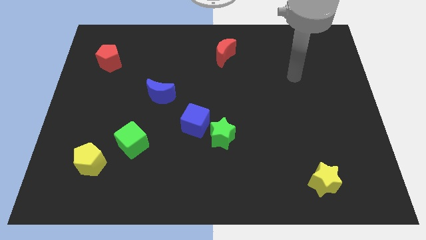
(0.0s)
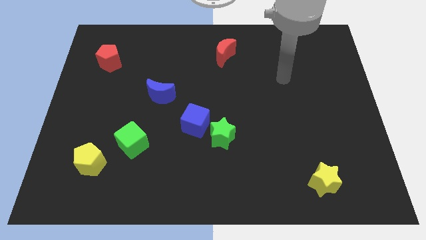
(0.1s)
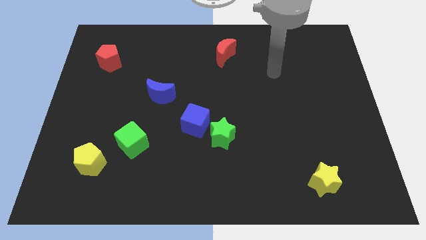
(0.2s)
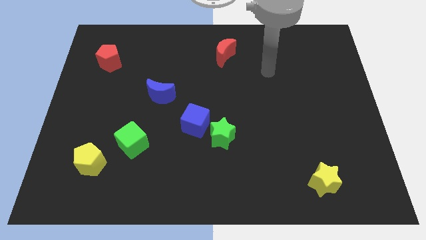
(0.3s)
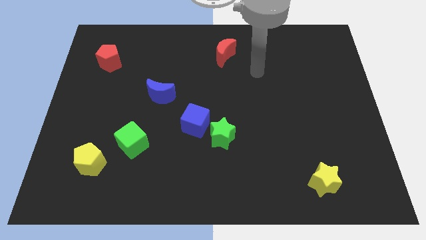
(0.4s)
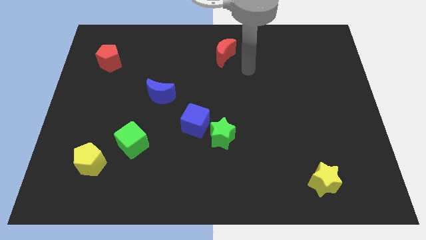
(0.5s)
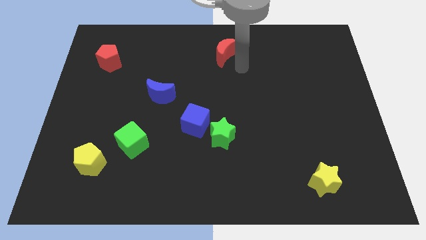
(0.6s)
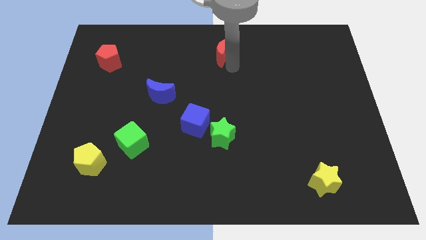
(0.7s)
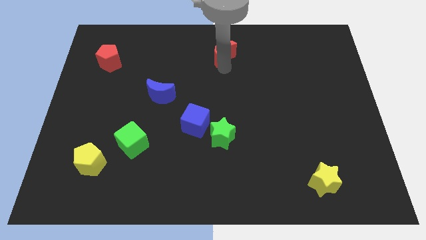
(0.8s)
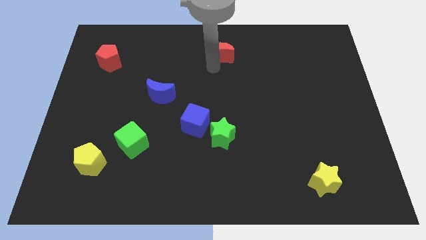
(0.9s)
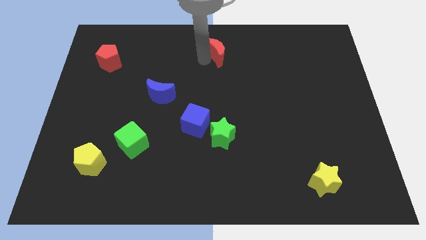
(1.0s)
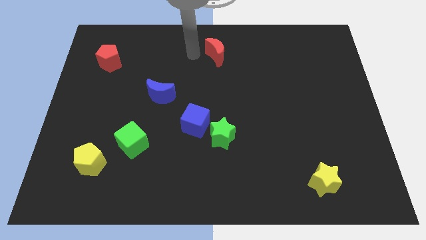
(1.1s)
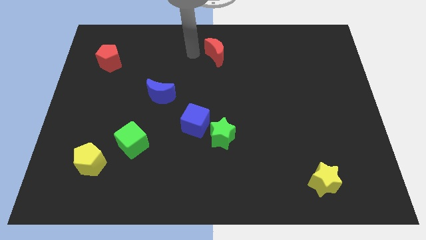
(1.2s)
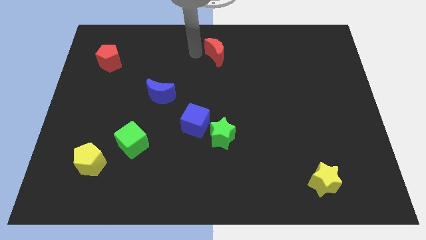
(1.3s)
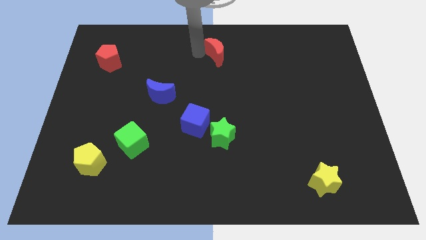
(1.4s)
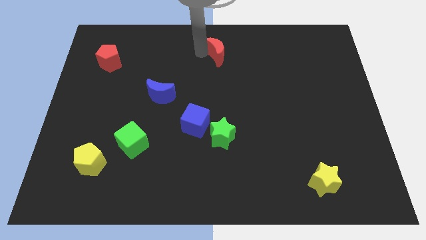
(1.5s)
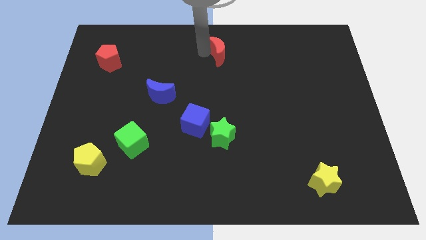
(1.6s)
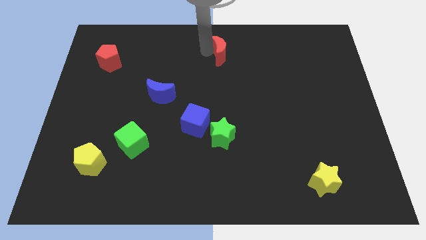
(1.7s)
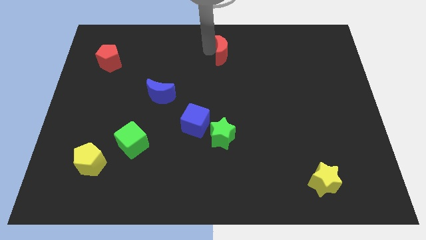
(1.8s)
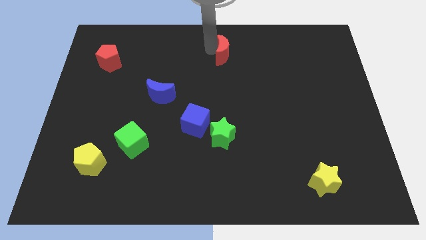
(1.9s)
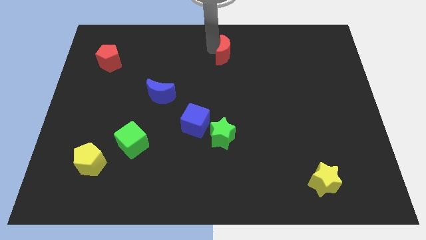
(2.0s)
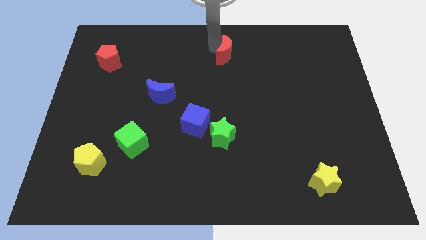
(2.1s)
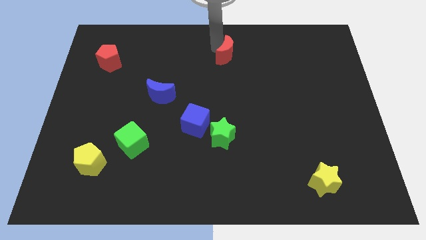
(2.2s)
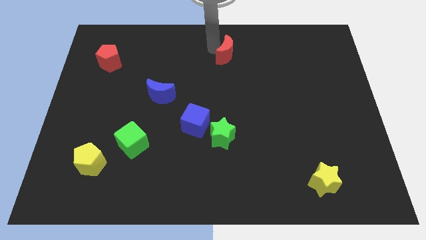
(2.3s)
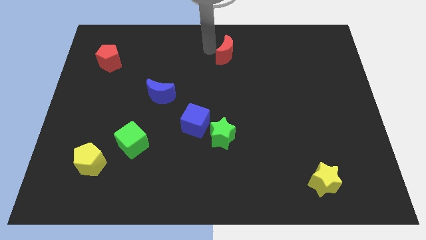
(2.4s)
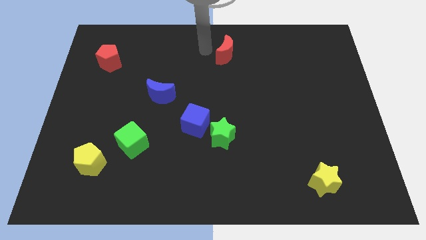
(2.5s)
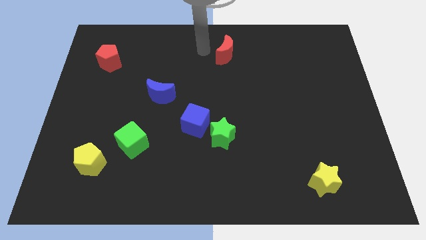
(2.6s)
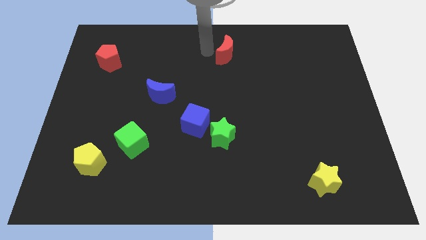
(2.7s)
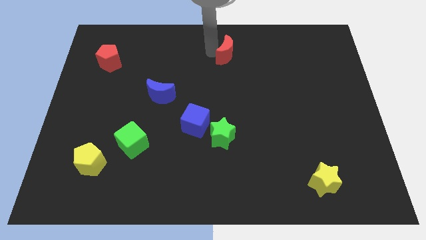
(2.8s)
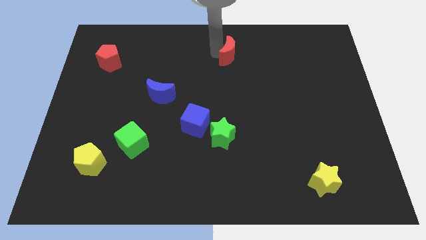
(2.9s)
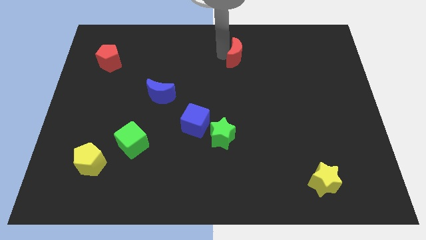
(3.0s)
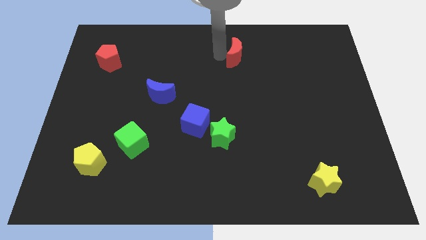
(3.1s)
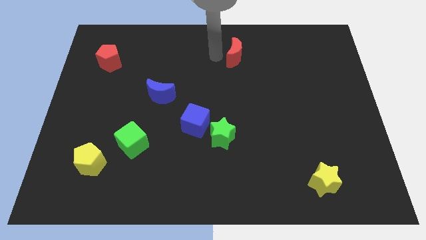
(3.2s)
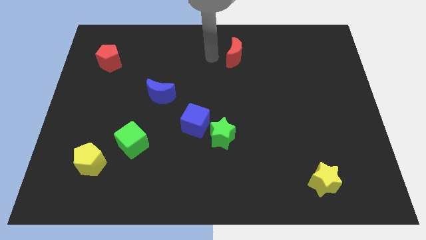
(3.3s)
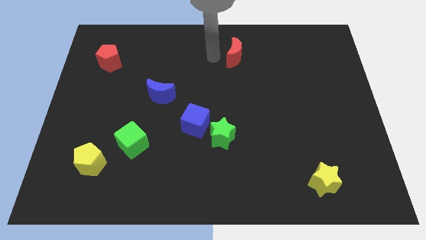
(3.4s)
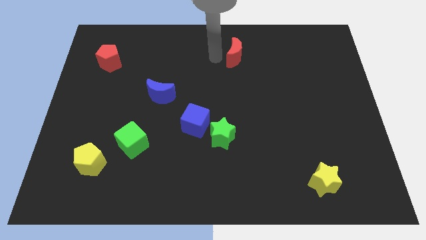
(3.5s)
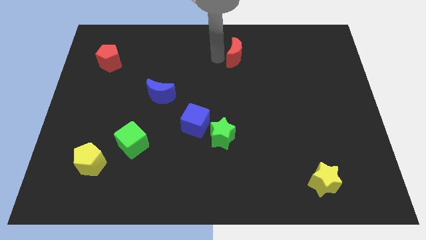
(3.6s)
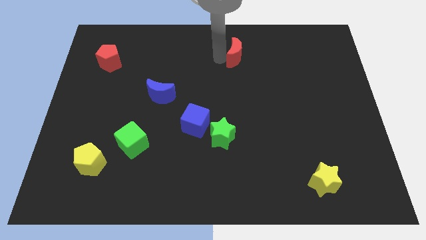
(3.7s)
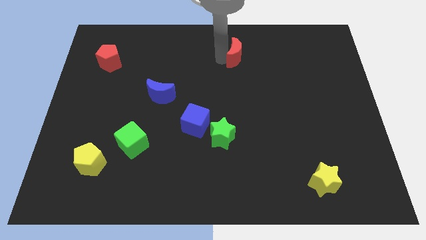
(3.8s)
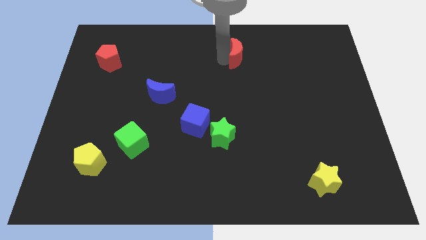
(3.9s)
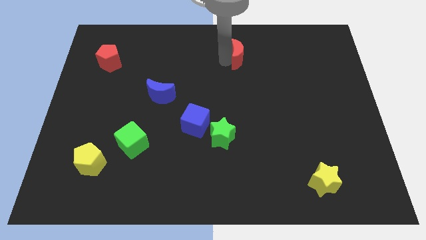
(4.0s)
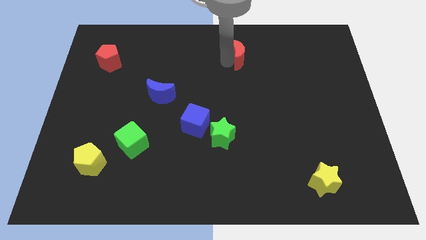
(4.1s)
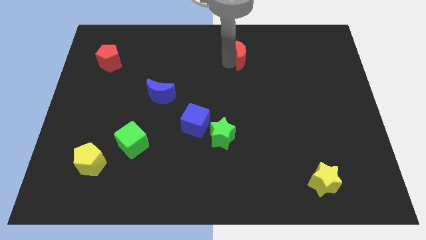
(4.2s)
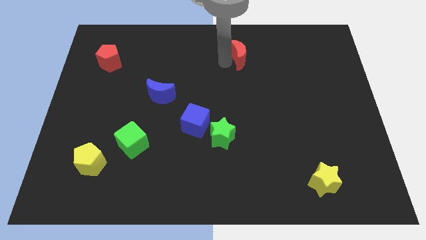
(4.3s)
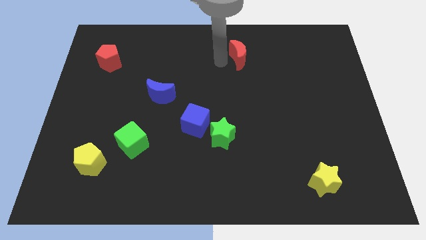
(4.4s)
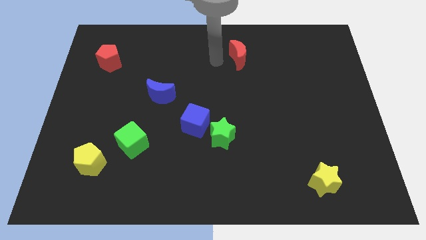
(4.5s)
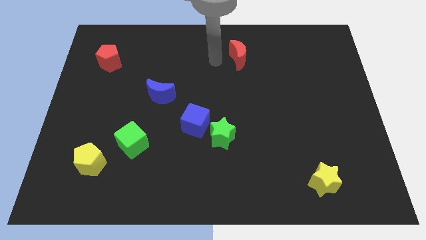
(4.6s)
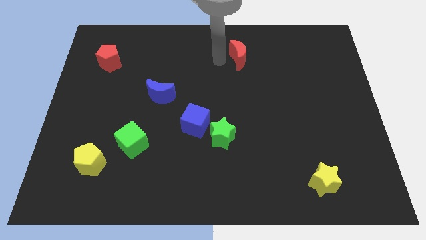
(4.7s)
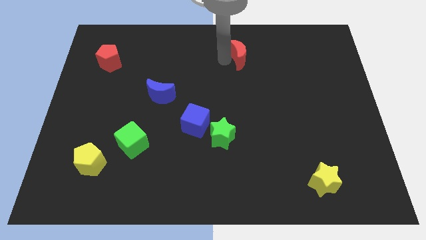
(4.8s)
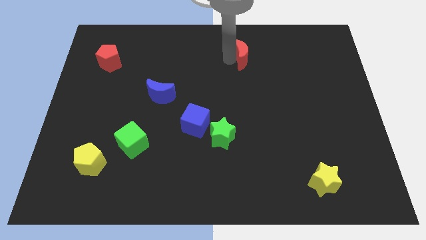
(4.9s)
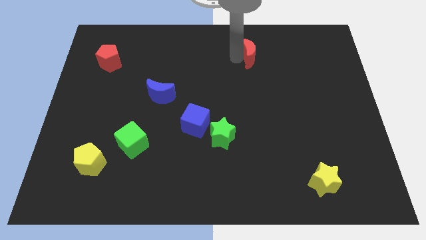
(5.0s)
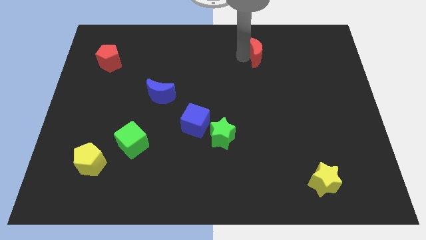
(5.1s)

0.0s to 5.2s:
slide the red moon slightly right

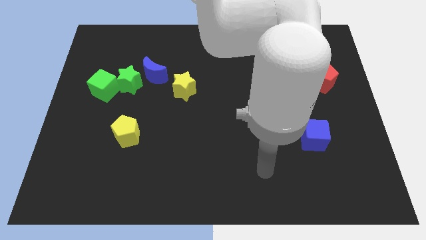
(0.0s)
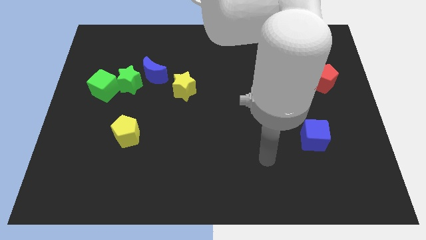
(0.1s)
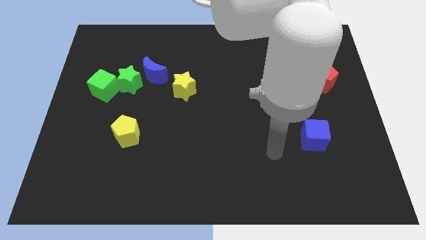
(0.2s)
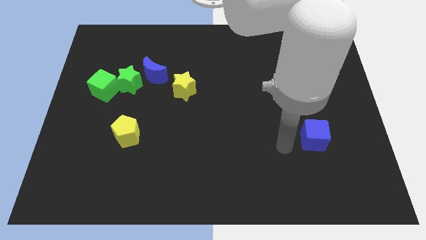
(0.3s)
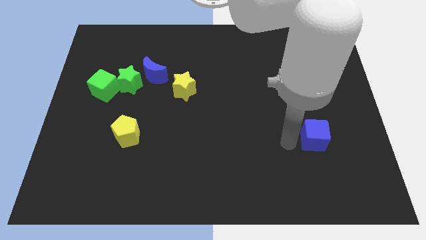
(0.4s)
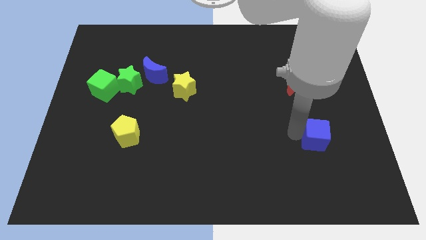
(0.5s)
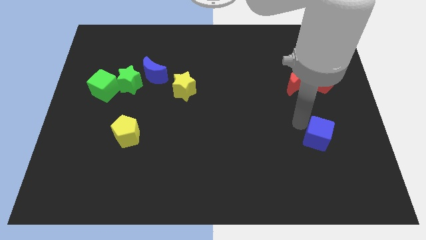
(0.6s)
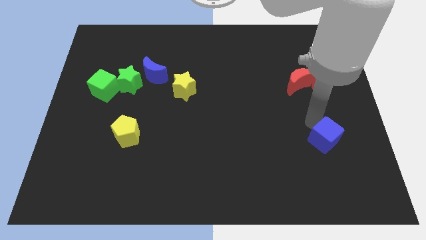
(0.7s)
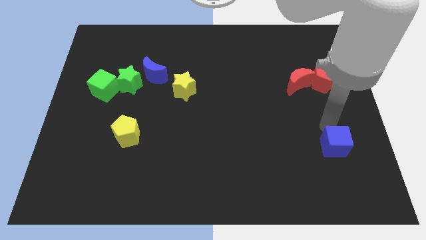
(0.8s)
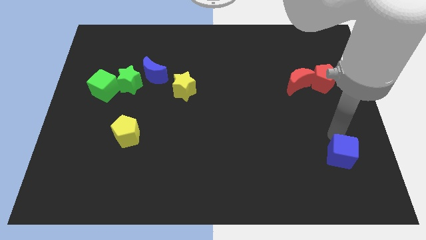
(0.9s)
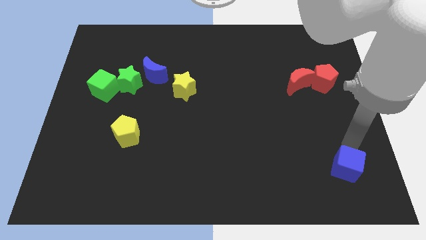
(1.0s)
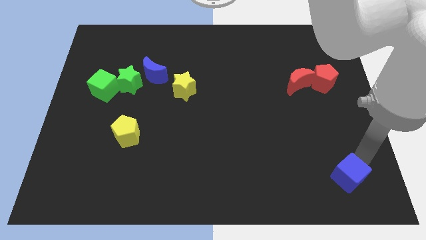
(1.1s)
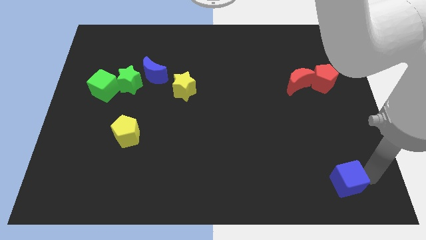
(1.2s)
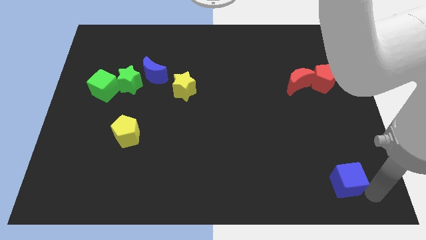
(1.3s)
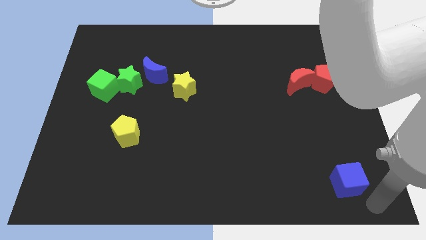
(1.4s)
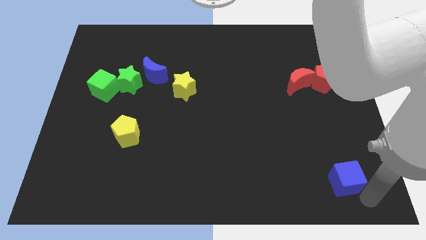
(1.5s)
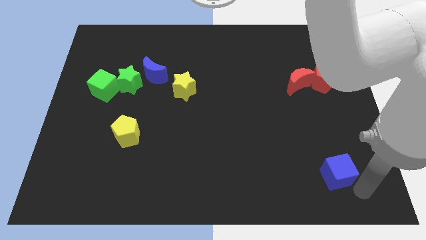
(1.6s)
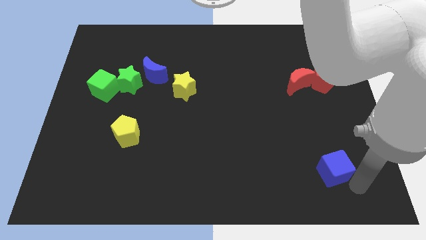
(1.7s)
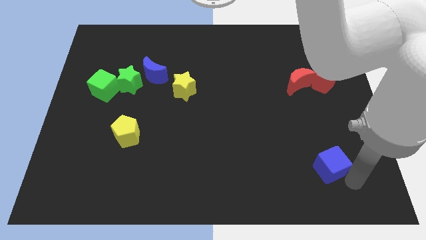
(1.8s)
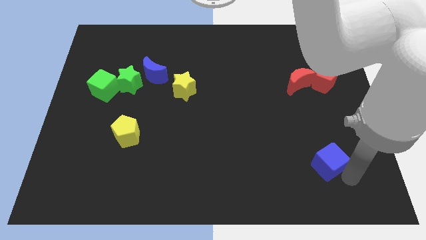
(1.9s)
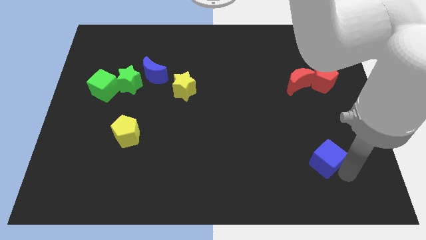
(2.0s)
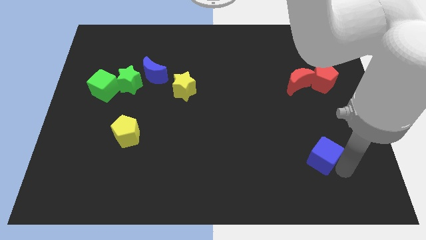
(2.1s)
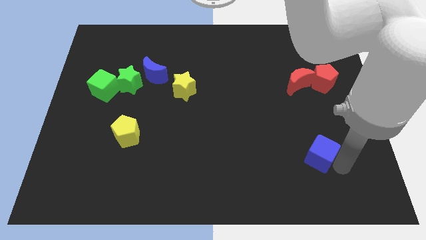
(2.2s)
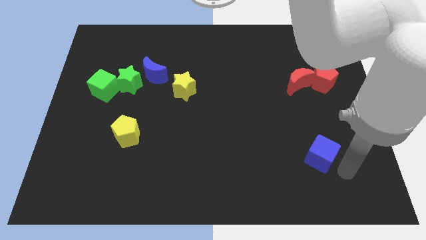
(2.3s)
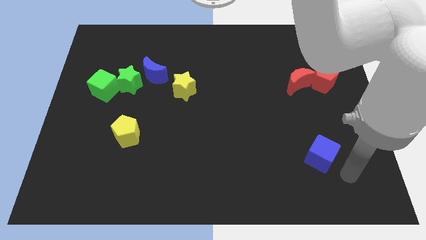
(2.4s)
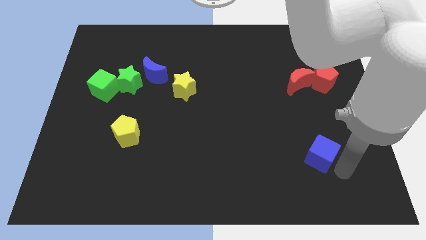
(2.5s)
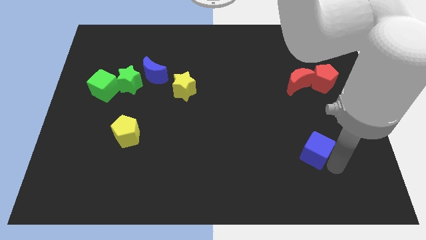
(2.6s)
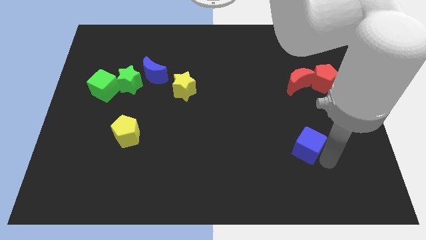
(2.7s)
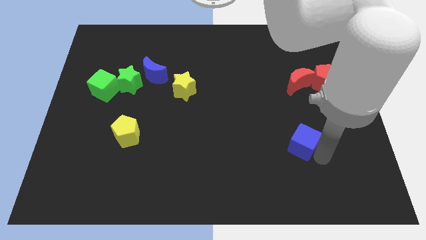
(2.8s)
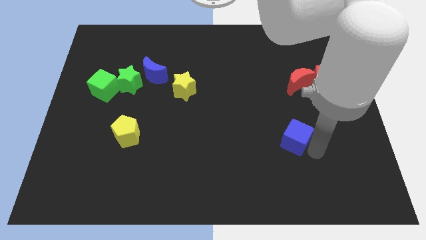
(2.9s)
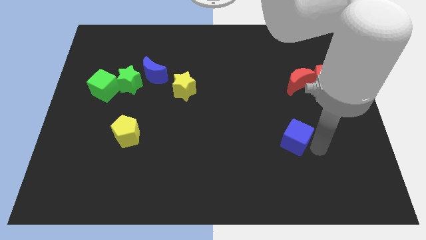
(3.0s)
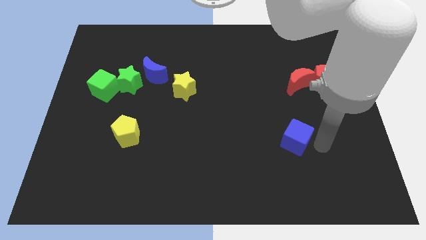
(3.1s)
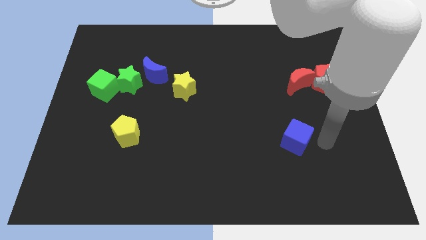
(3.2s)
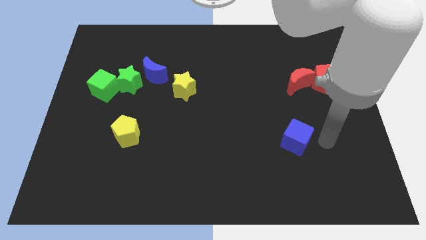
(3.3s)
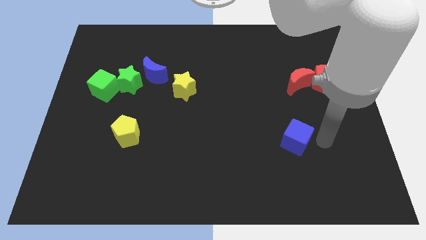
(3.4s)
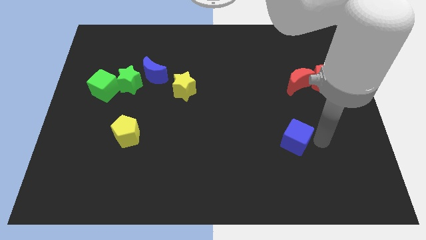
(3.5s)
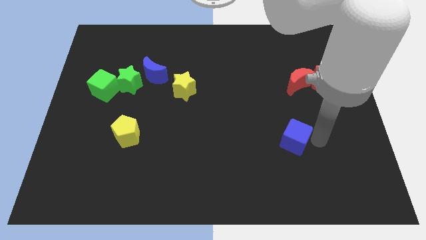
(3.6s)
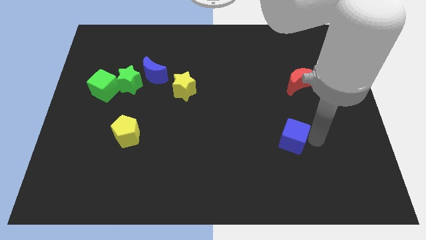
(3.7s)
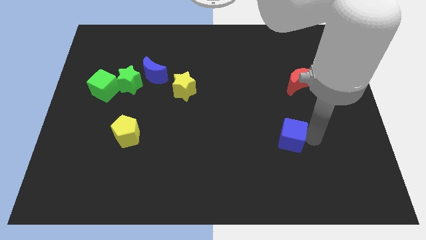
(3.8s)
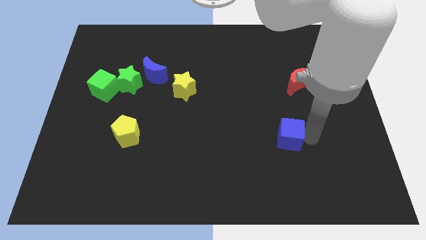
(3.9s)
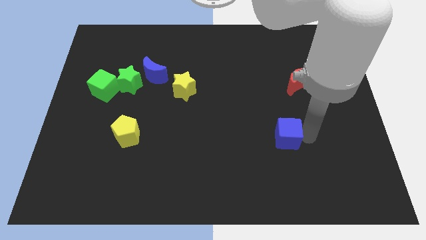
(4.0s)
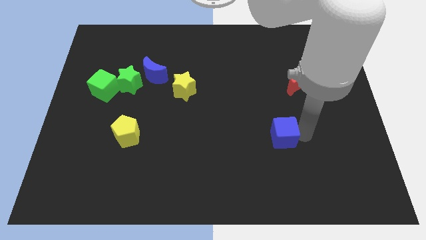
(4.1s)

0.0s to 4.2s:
move the blue cube slightly left
